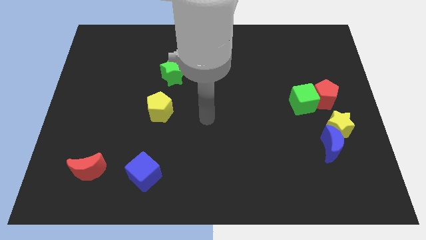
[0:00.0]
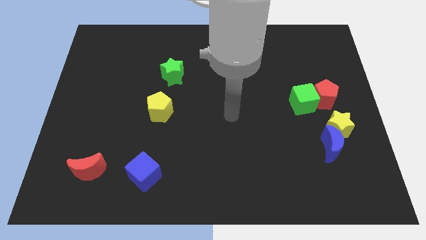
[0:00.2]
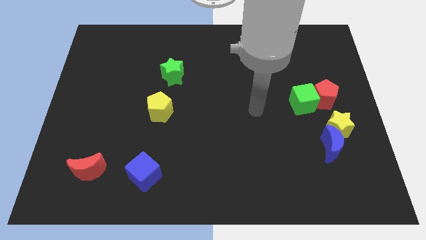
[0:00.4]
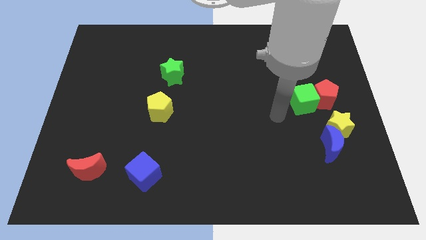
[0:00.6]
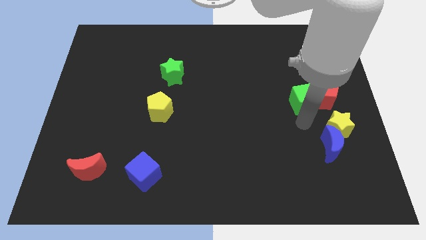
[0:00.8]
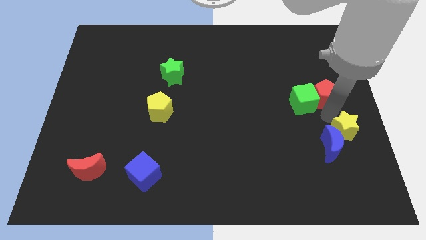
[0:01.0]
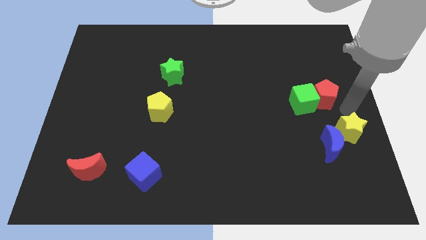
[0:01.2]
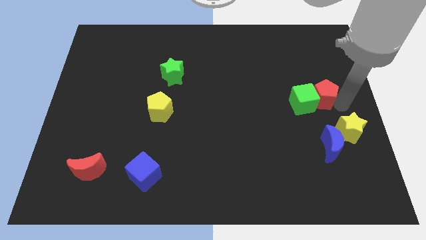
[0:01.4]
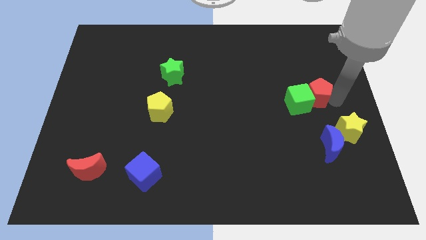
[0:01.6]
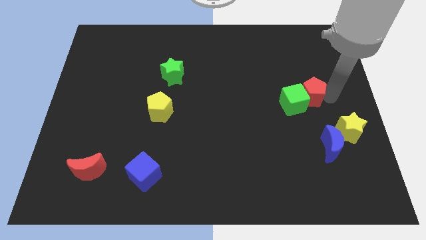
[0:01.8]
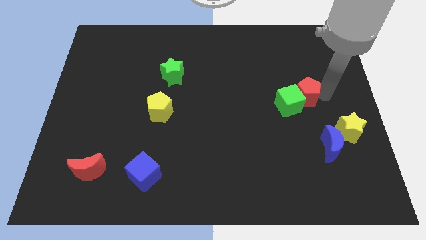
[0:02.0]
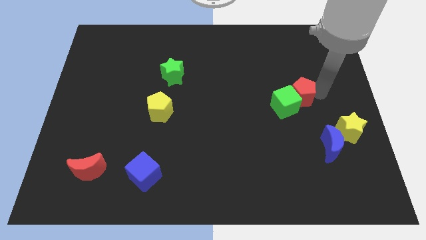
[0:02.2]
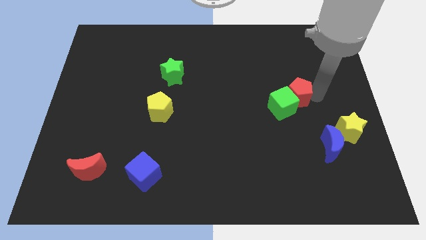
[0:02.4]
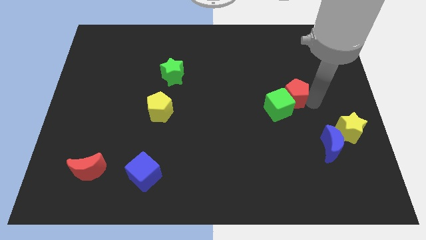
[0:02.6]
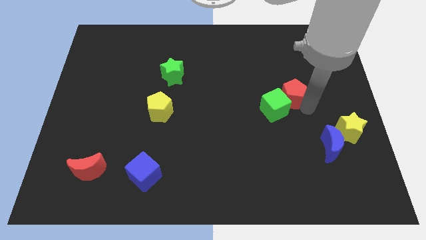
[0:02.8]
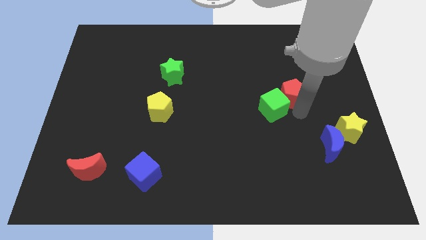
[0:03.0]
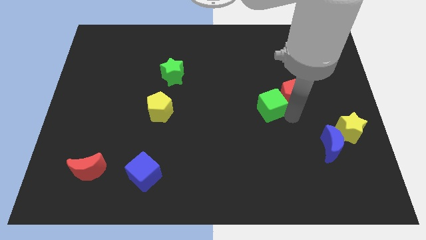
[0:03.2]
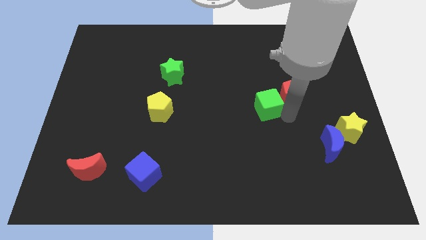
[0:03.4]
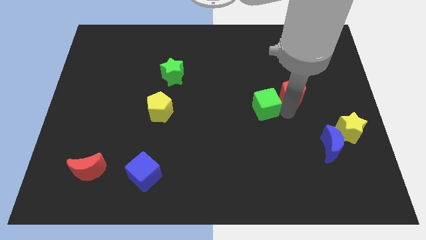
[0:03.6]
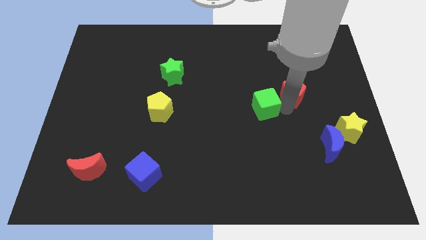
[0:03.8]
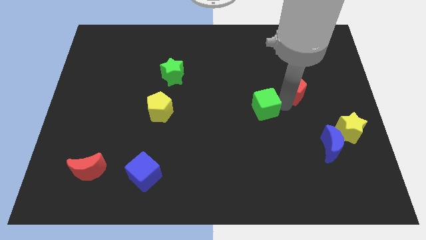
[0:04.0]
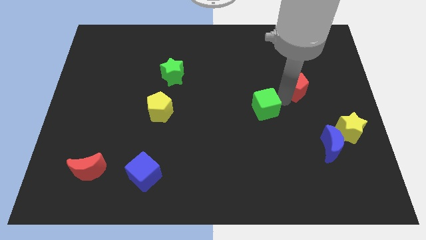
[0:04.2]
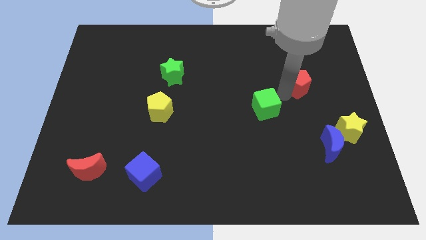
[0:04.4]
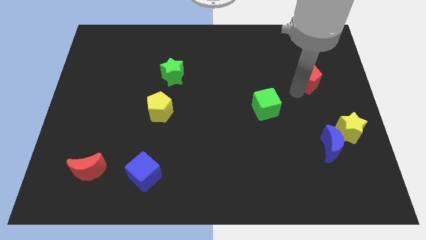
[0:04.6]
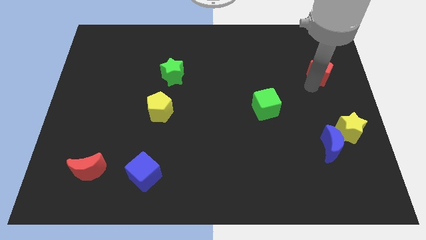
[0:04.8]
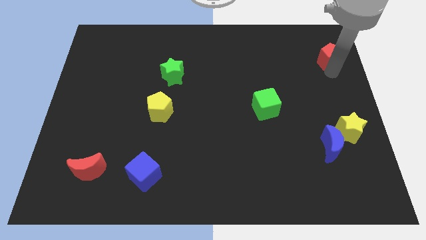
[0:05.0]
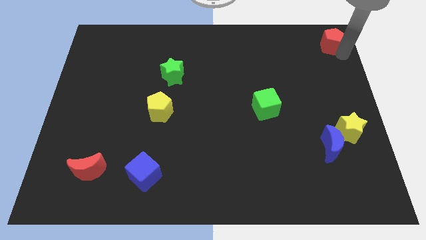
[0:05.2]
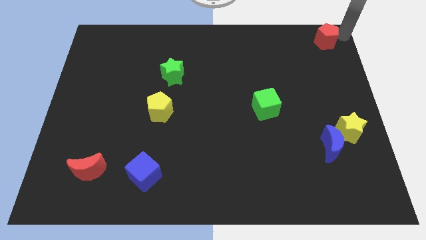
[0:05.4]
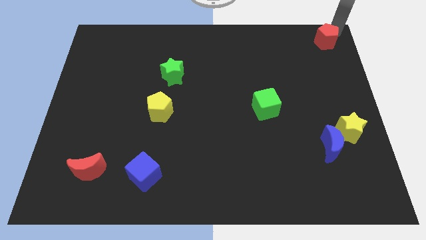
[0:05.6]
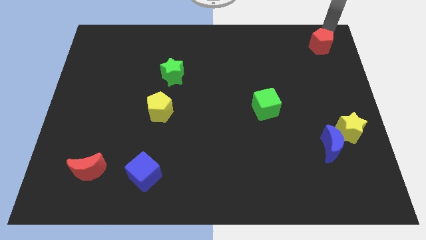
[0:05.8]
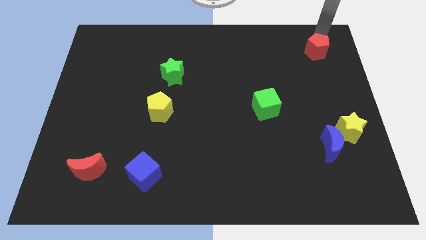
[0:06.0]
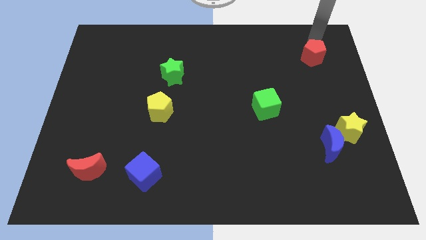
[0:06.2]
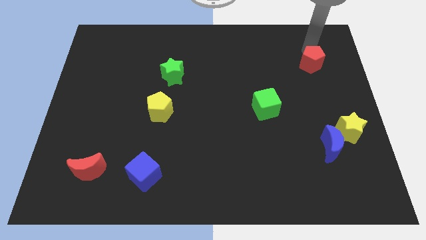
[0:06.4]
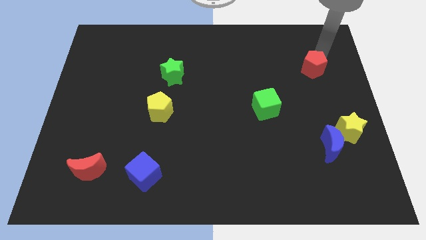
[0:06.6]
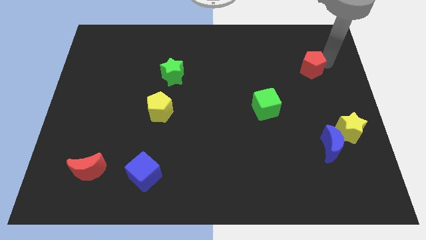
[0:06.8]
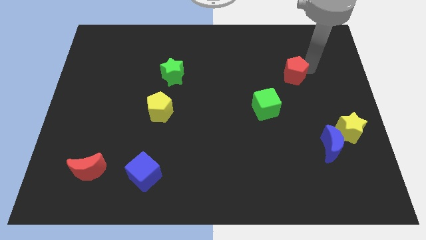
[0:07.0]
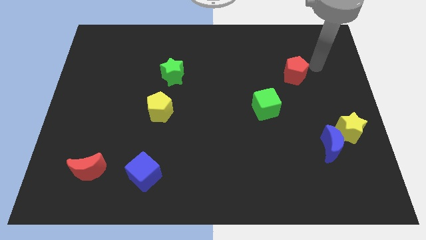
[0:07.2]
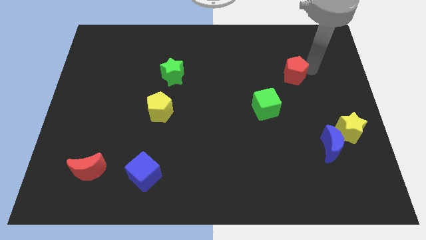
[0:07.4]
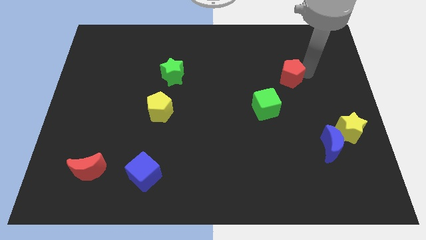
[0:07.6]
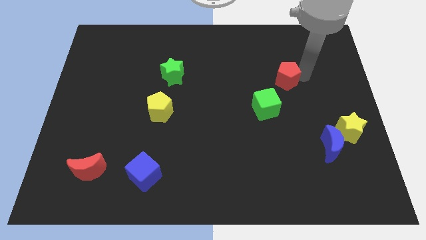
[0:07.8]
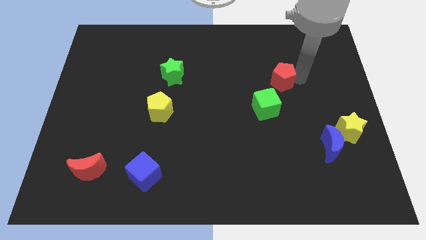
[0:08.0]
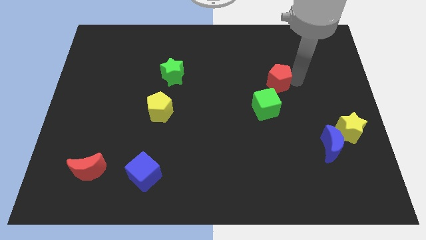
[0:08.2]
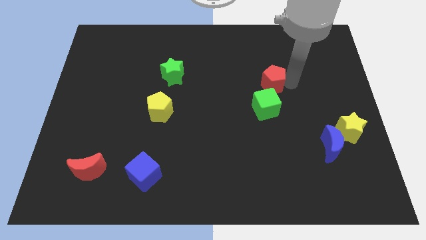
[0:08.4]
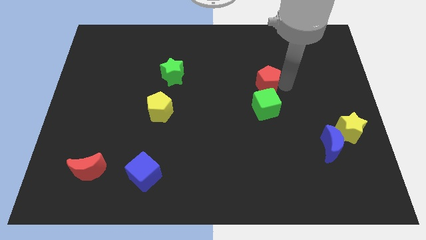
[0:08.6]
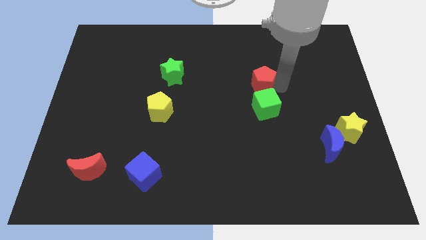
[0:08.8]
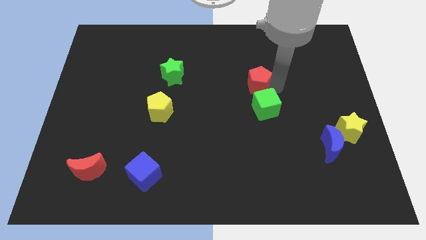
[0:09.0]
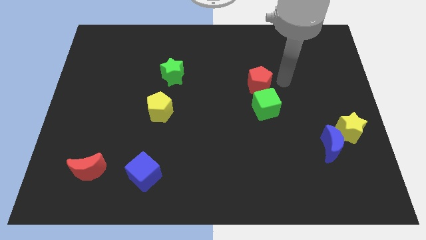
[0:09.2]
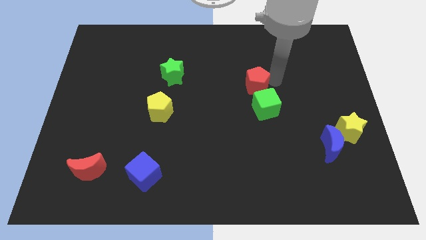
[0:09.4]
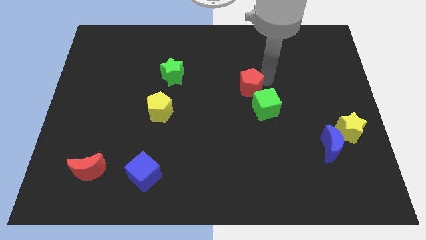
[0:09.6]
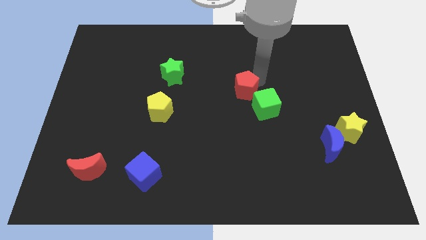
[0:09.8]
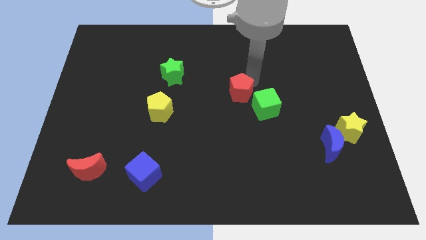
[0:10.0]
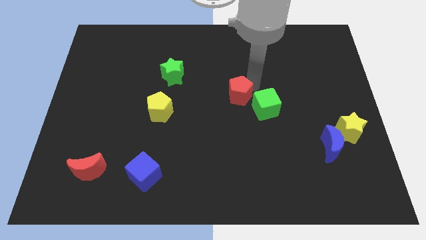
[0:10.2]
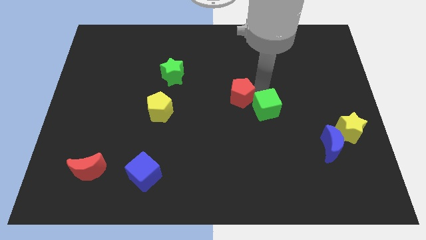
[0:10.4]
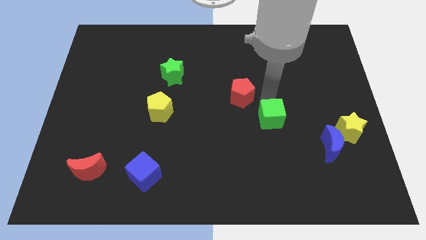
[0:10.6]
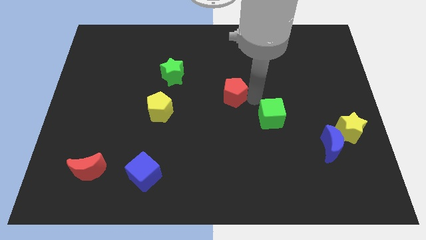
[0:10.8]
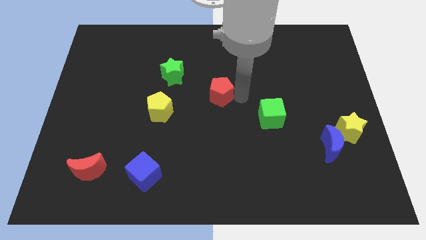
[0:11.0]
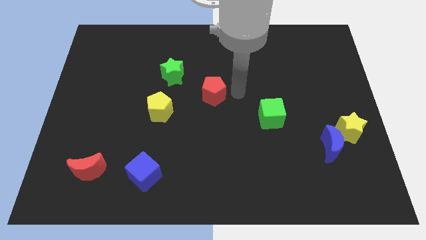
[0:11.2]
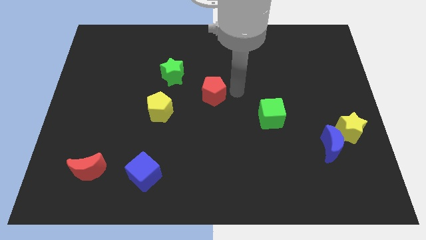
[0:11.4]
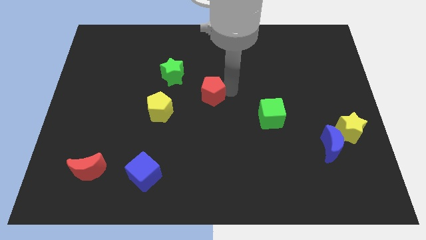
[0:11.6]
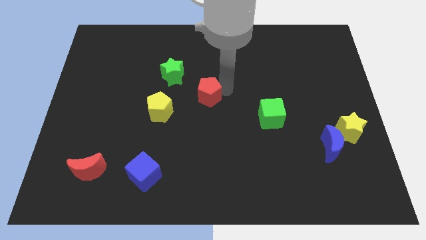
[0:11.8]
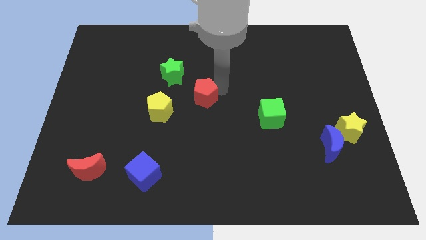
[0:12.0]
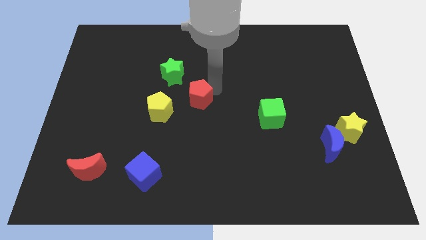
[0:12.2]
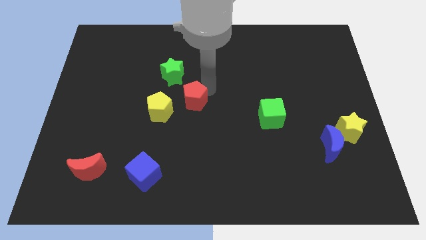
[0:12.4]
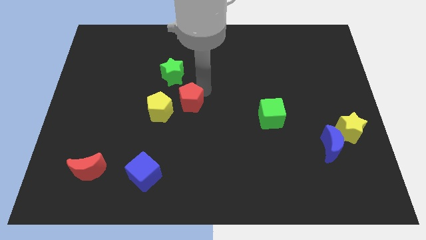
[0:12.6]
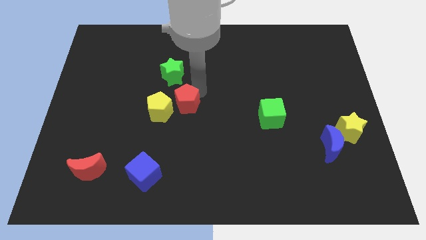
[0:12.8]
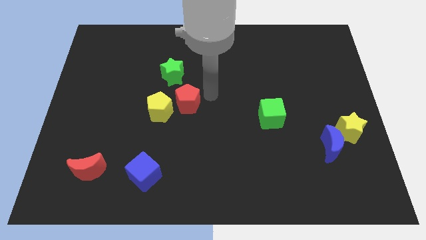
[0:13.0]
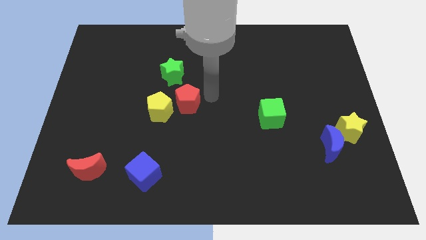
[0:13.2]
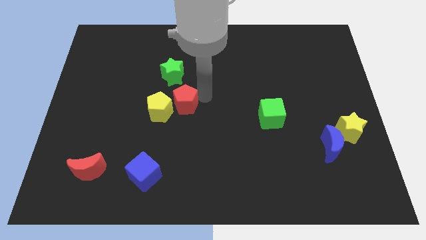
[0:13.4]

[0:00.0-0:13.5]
slide the red pentagon next to the yellow pentagon
